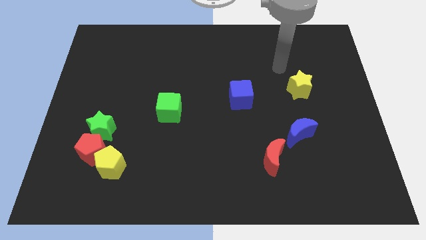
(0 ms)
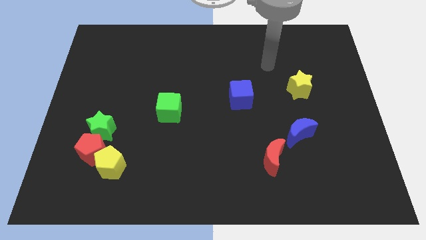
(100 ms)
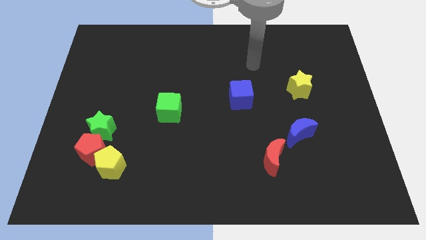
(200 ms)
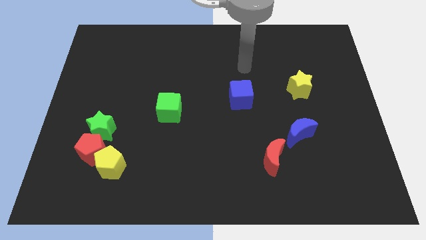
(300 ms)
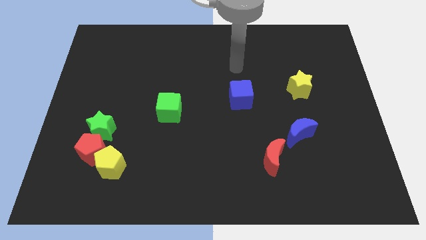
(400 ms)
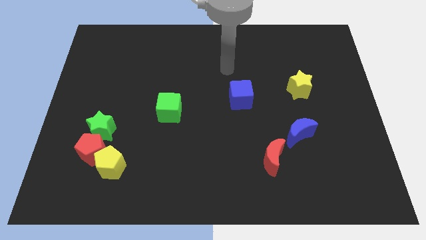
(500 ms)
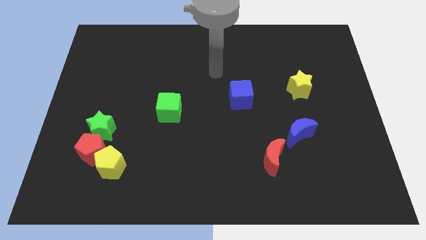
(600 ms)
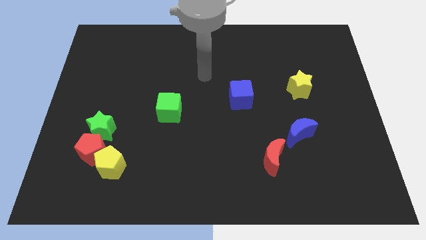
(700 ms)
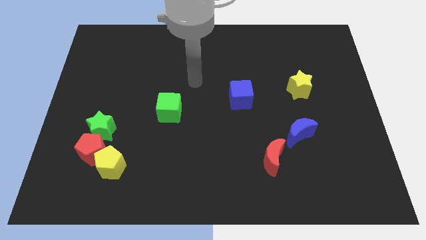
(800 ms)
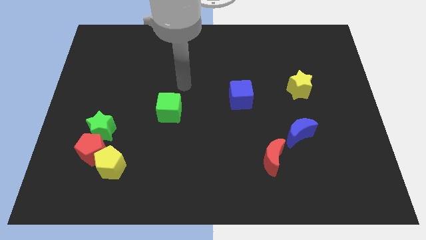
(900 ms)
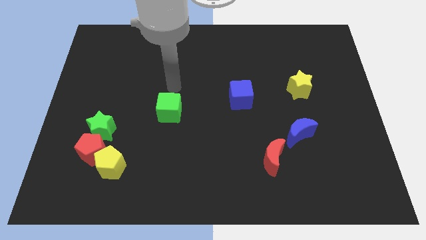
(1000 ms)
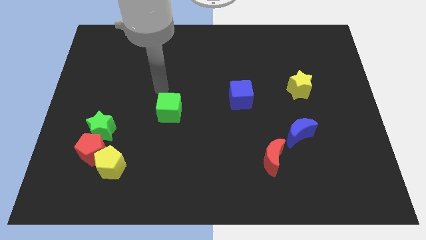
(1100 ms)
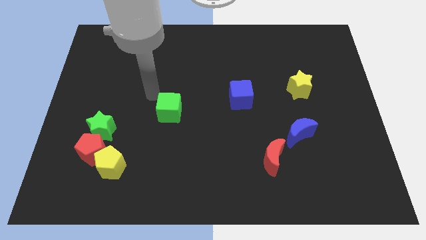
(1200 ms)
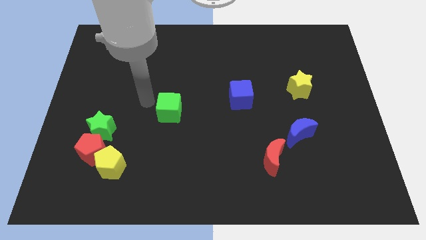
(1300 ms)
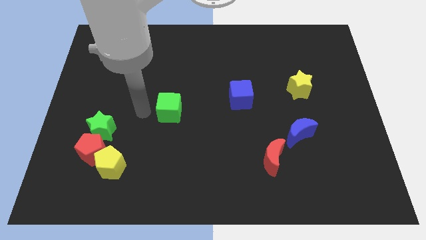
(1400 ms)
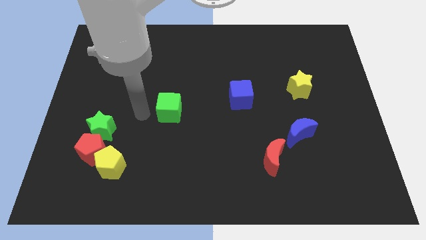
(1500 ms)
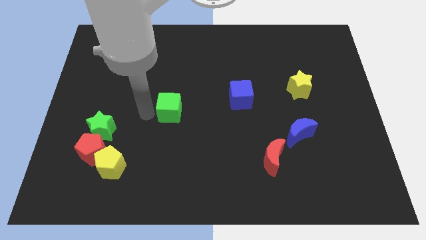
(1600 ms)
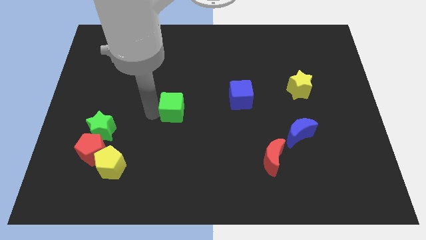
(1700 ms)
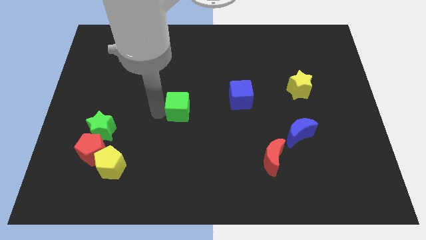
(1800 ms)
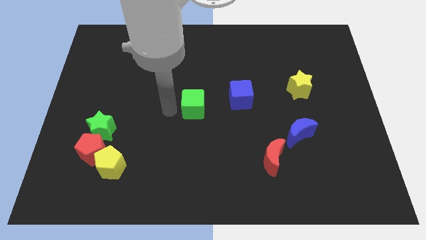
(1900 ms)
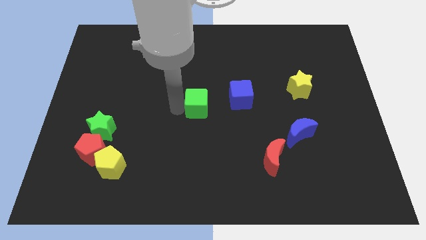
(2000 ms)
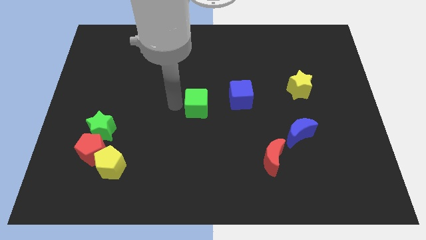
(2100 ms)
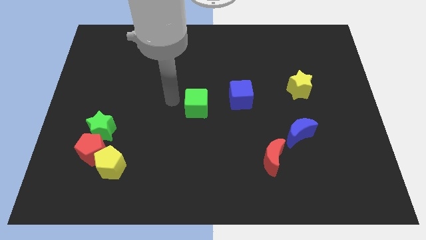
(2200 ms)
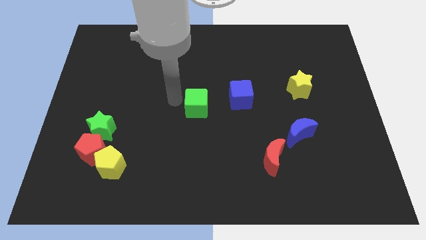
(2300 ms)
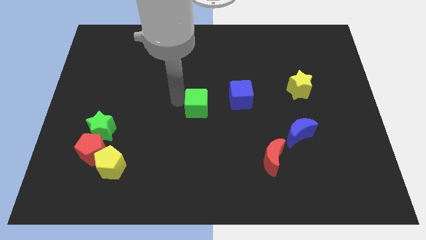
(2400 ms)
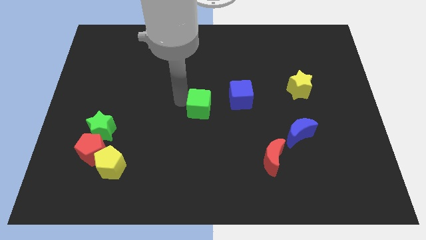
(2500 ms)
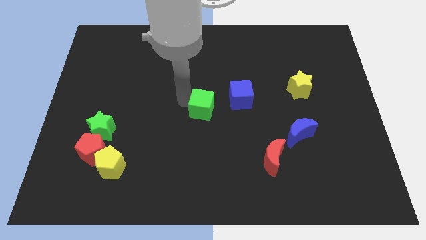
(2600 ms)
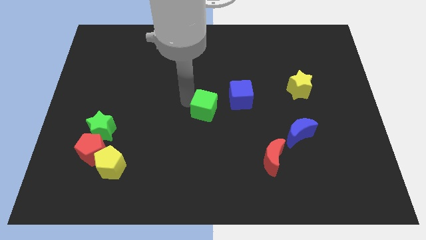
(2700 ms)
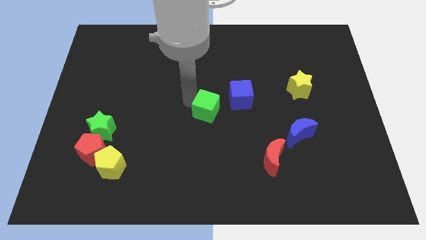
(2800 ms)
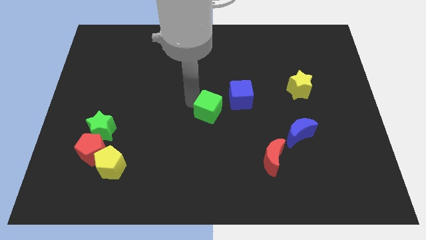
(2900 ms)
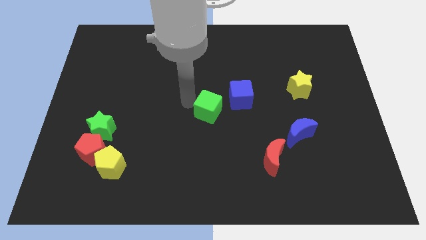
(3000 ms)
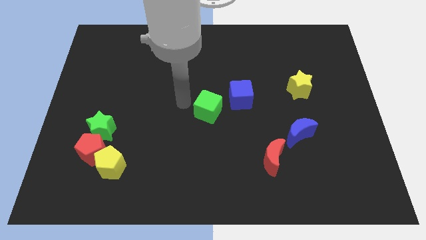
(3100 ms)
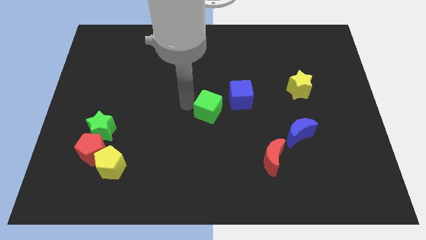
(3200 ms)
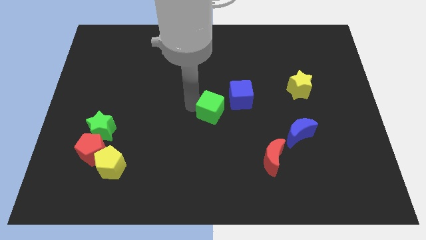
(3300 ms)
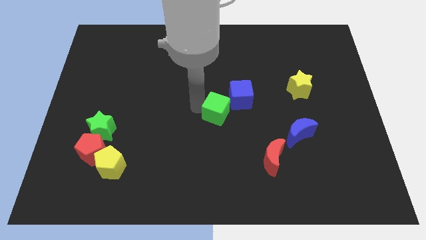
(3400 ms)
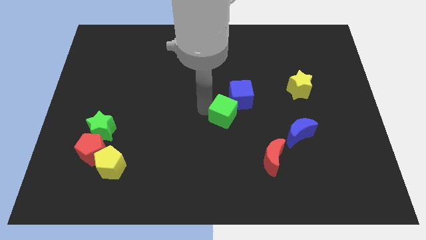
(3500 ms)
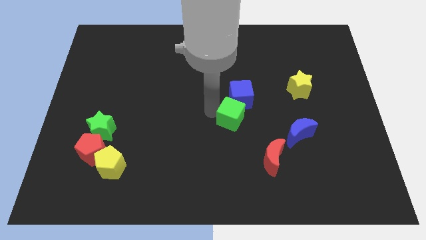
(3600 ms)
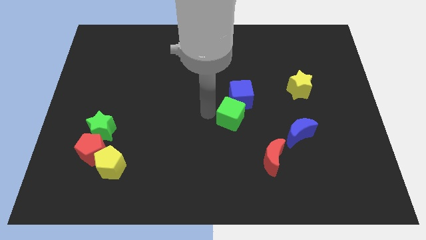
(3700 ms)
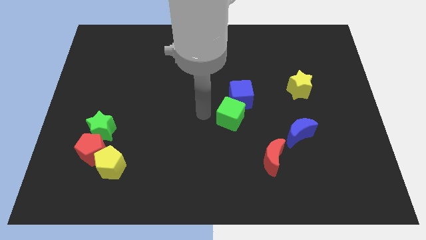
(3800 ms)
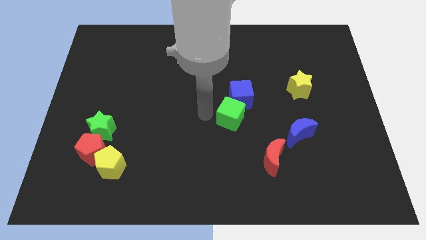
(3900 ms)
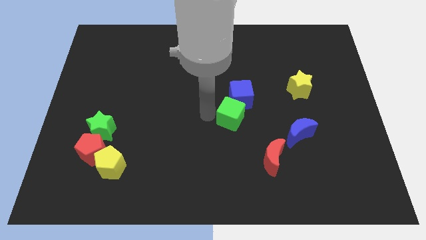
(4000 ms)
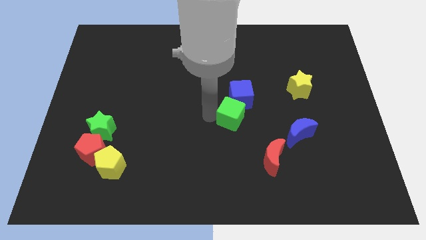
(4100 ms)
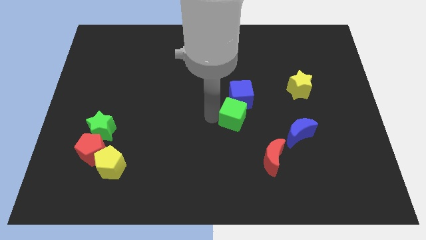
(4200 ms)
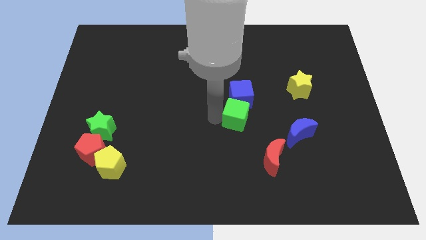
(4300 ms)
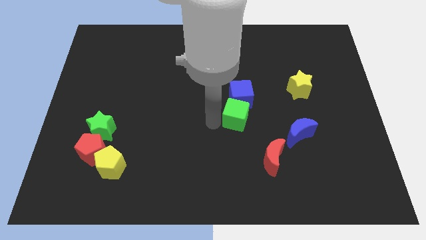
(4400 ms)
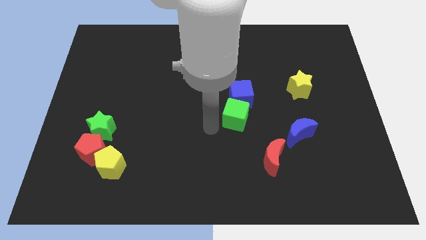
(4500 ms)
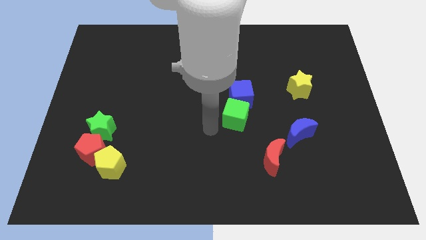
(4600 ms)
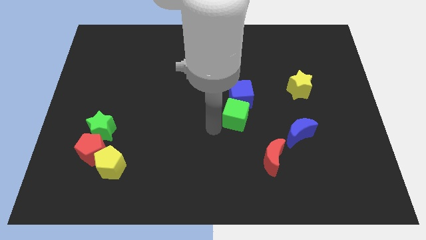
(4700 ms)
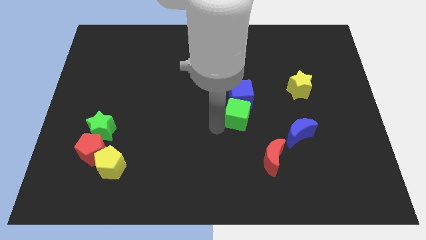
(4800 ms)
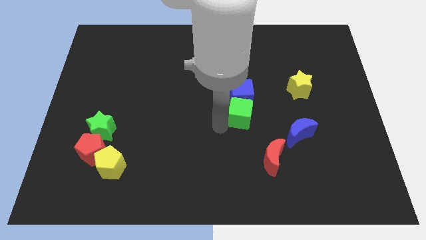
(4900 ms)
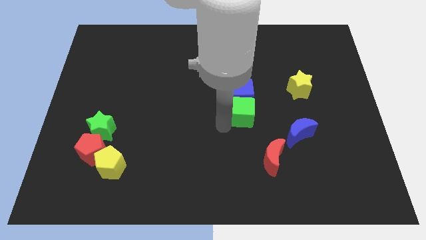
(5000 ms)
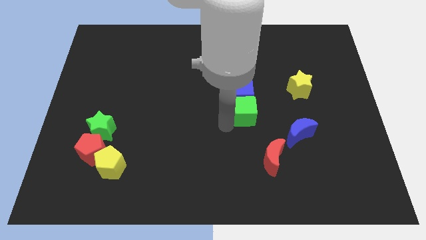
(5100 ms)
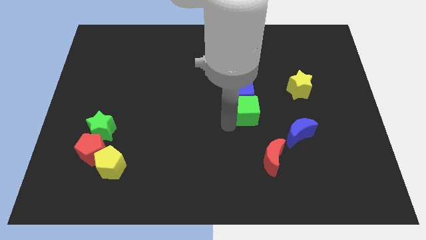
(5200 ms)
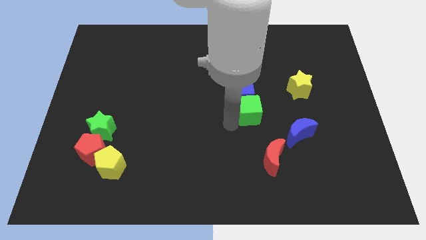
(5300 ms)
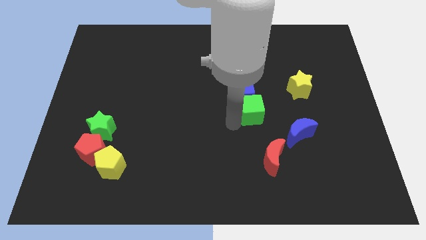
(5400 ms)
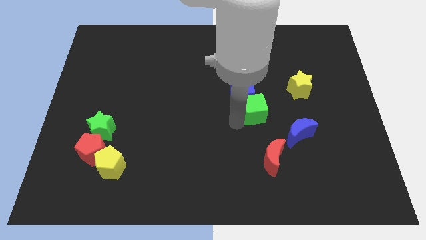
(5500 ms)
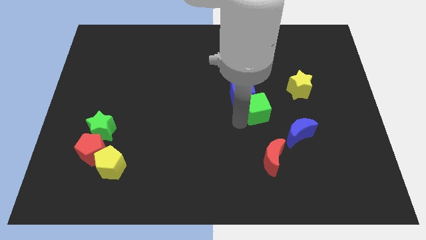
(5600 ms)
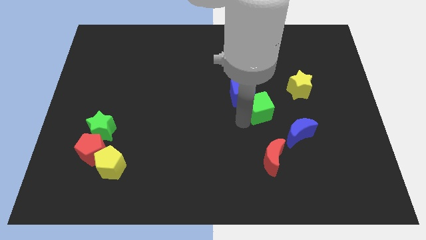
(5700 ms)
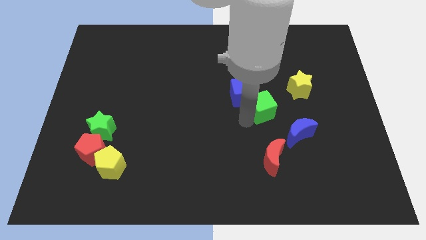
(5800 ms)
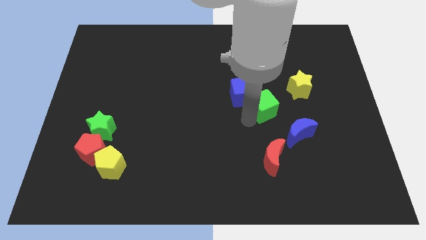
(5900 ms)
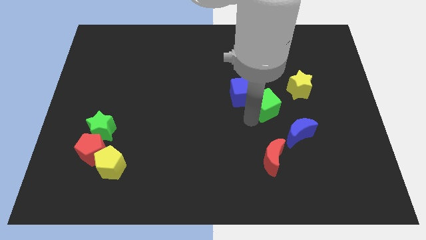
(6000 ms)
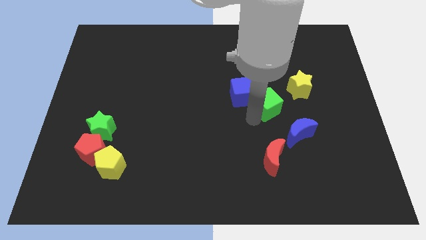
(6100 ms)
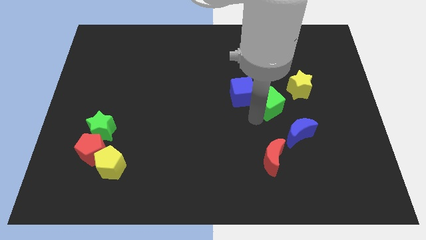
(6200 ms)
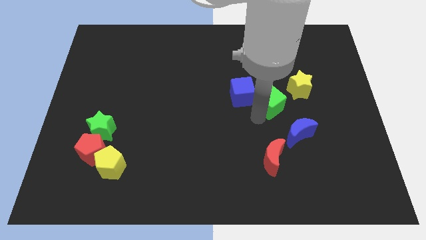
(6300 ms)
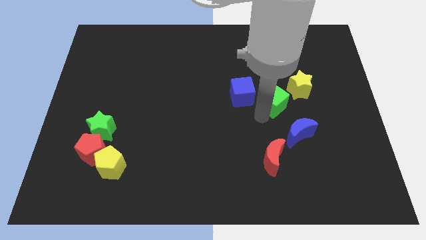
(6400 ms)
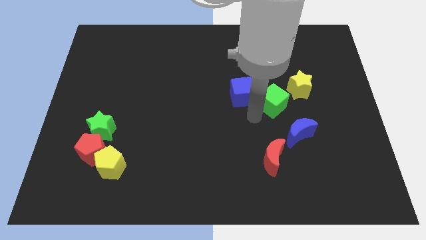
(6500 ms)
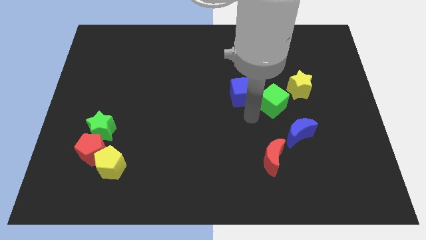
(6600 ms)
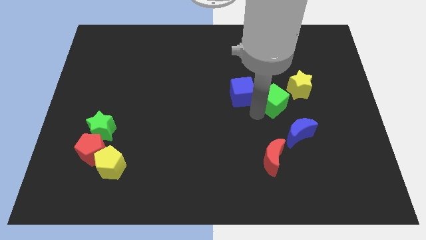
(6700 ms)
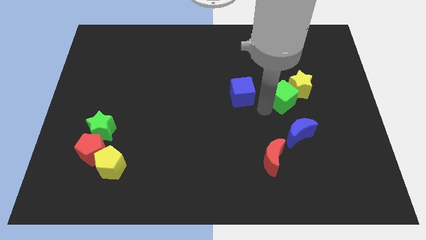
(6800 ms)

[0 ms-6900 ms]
slide the green cube to the yellow star

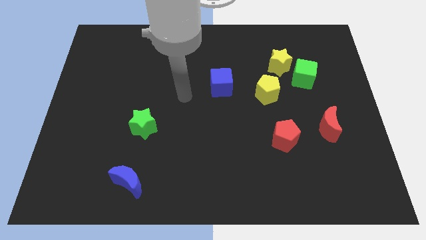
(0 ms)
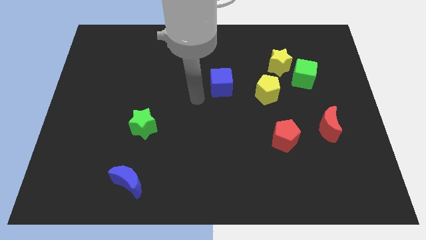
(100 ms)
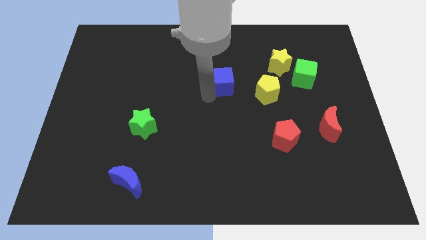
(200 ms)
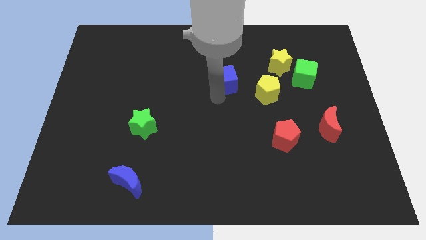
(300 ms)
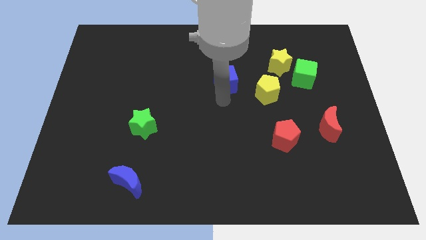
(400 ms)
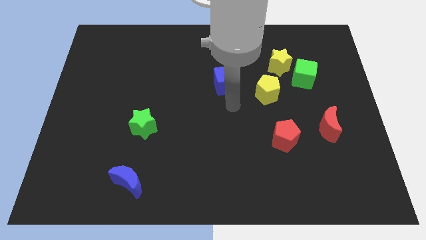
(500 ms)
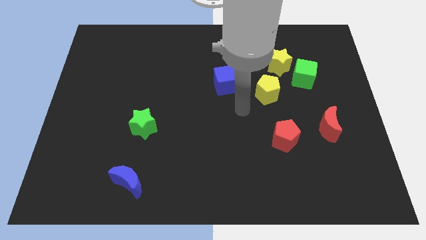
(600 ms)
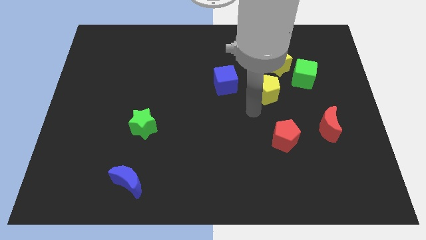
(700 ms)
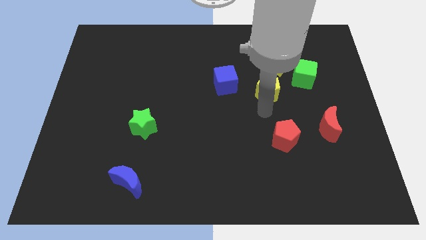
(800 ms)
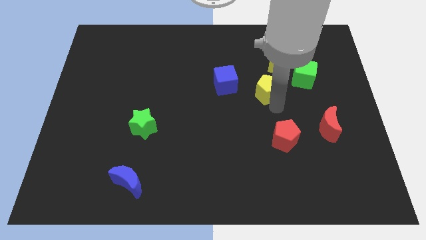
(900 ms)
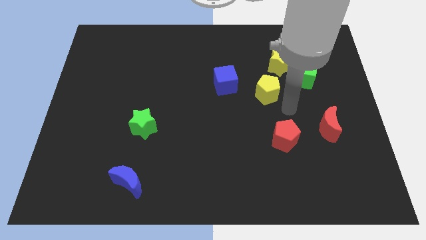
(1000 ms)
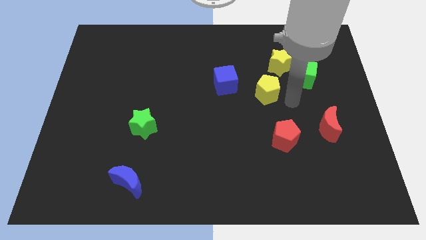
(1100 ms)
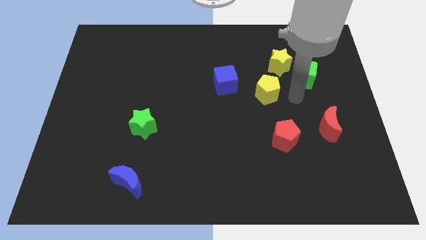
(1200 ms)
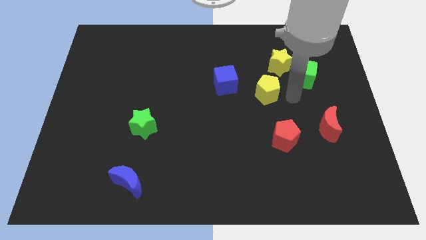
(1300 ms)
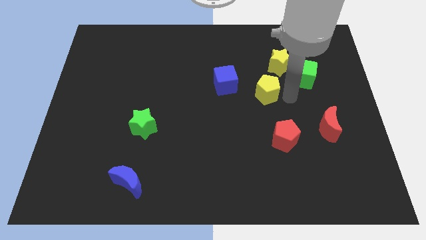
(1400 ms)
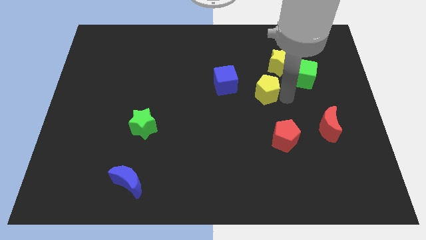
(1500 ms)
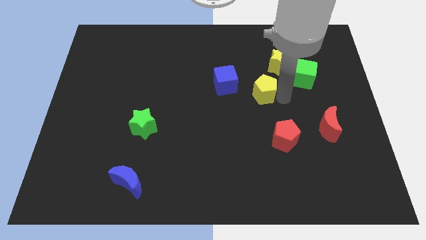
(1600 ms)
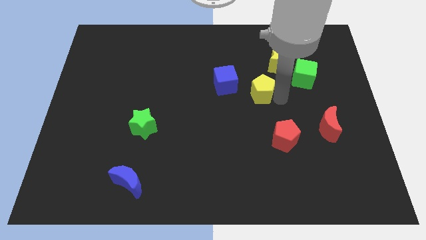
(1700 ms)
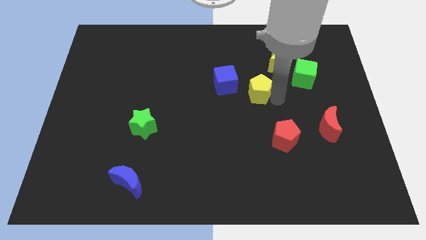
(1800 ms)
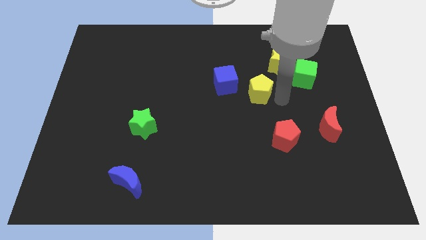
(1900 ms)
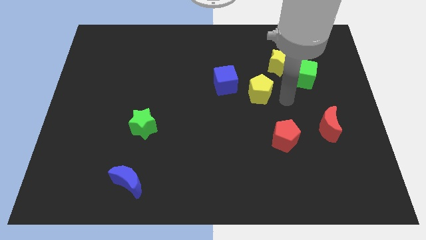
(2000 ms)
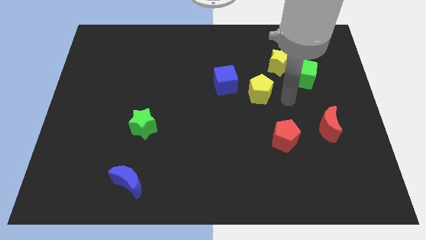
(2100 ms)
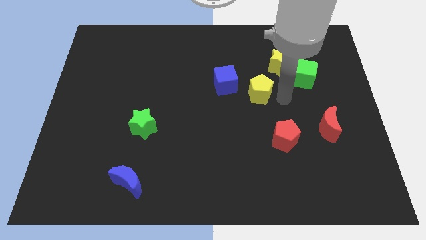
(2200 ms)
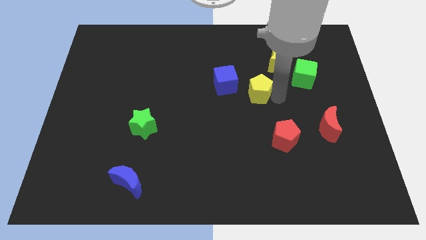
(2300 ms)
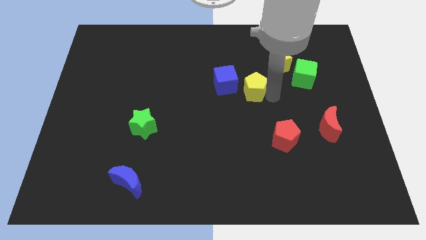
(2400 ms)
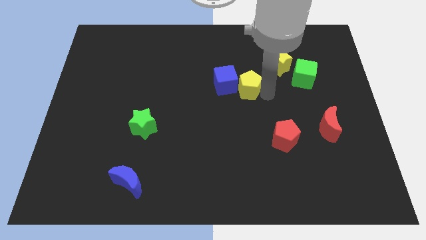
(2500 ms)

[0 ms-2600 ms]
put the yellow pentagon next to the blue cube
